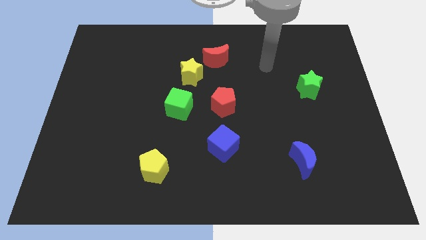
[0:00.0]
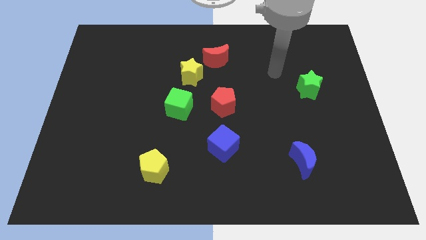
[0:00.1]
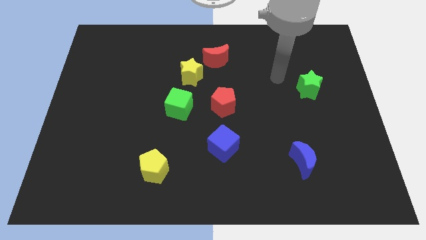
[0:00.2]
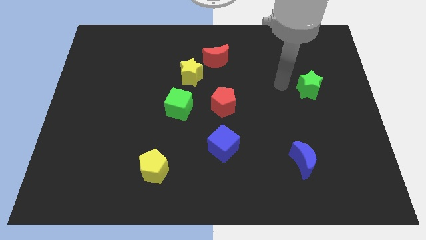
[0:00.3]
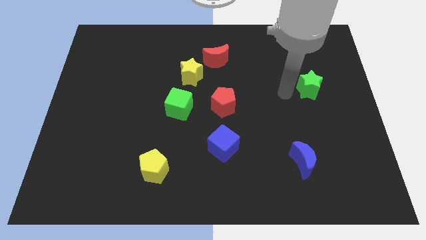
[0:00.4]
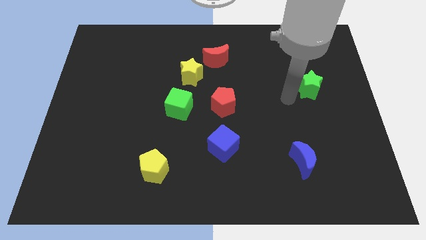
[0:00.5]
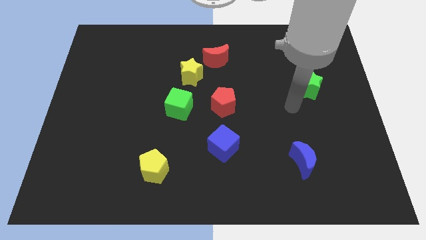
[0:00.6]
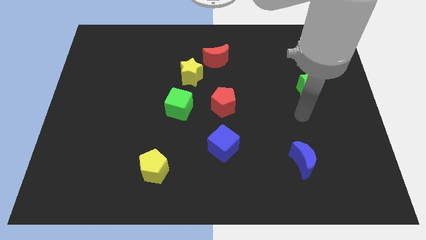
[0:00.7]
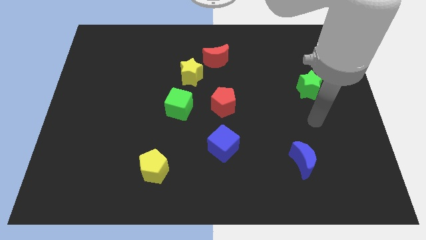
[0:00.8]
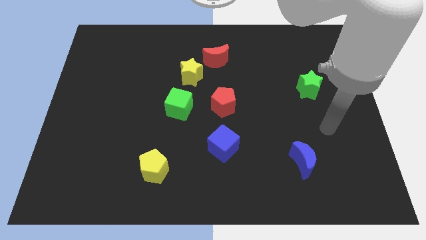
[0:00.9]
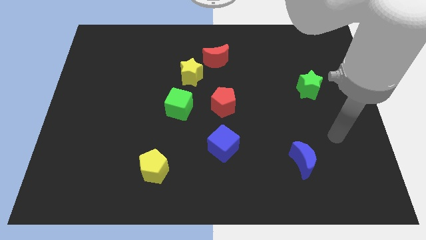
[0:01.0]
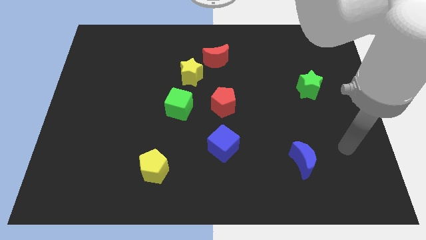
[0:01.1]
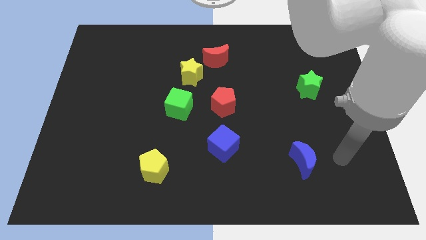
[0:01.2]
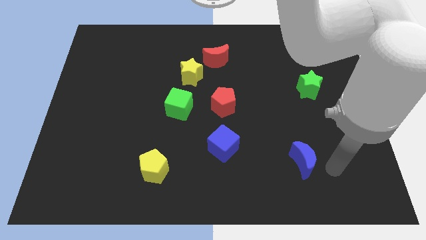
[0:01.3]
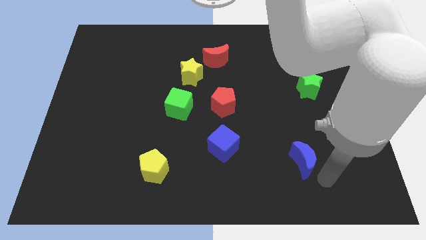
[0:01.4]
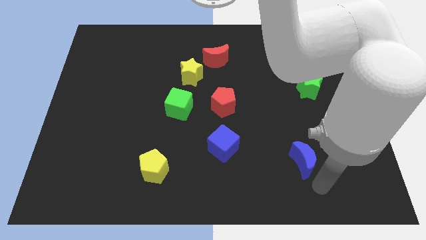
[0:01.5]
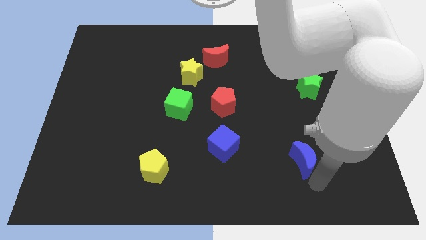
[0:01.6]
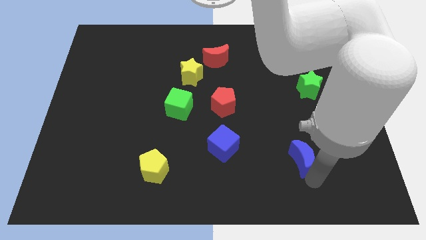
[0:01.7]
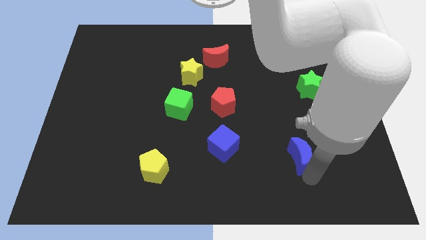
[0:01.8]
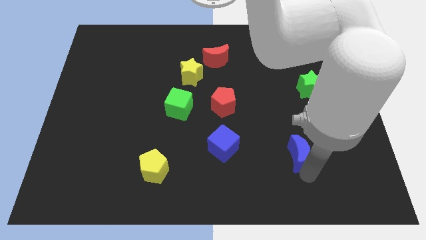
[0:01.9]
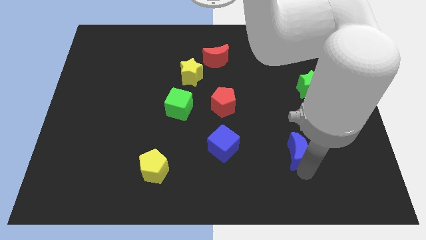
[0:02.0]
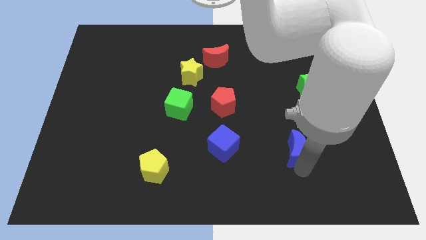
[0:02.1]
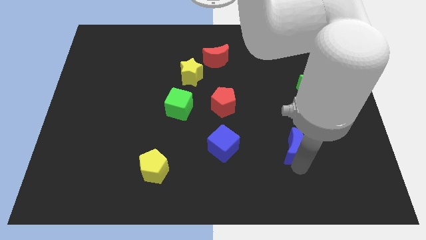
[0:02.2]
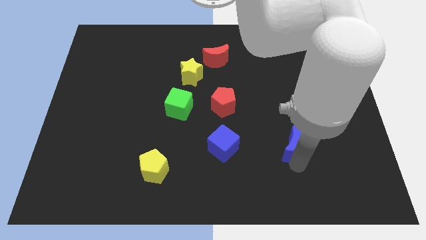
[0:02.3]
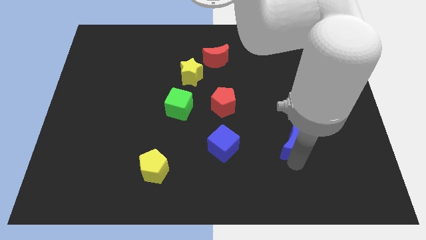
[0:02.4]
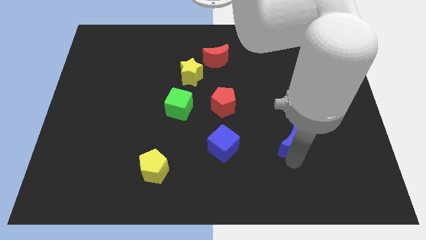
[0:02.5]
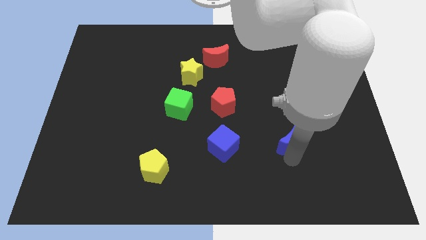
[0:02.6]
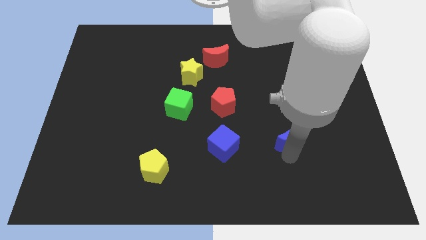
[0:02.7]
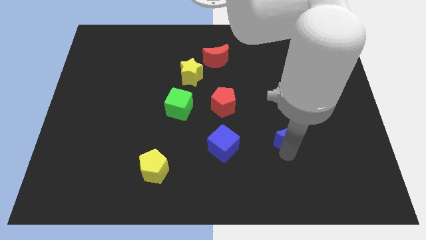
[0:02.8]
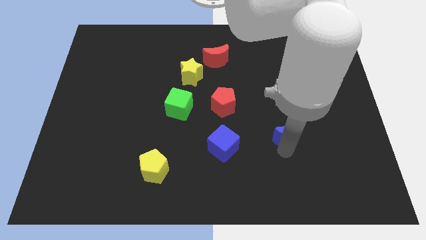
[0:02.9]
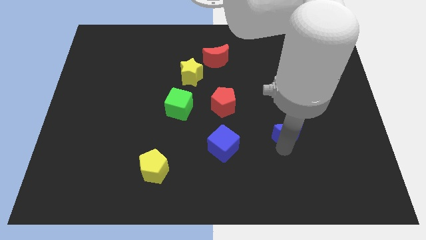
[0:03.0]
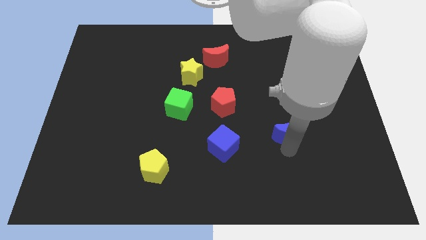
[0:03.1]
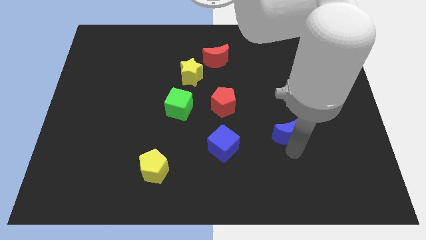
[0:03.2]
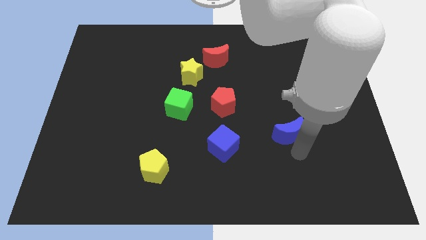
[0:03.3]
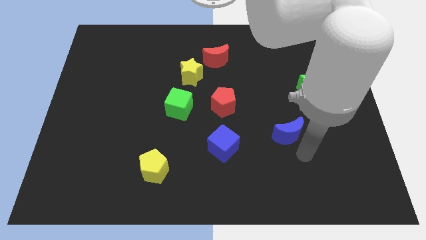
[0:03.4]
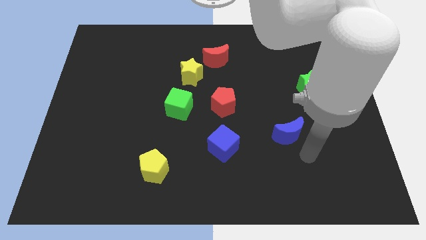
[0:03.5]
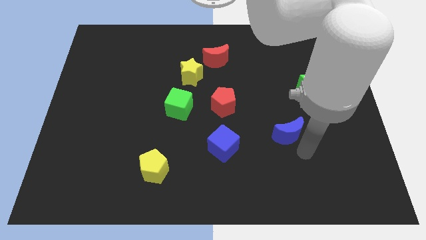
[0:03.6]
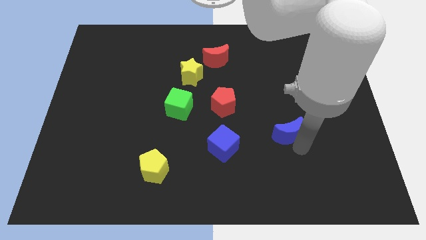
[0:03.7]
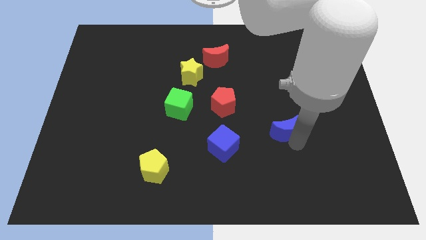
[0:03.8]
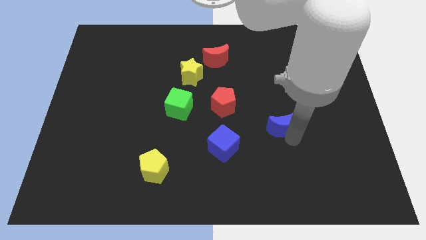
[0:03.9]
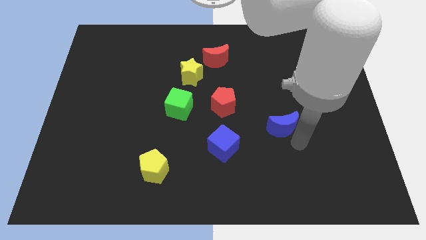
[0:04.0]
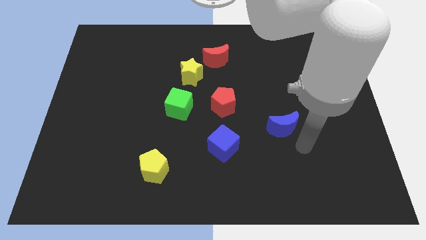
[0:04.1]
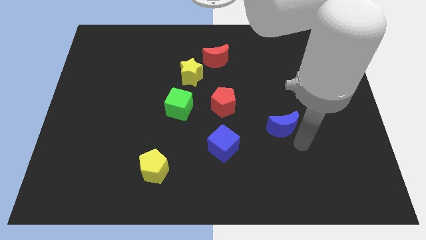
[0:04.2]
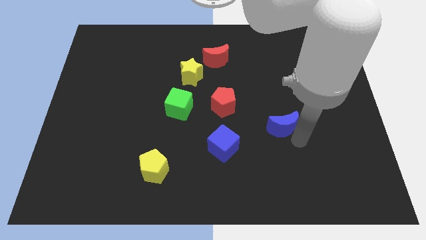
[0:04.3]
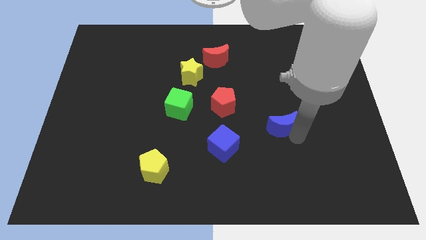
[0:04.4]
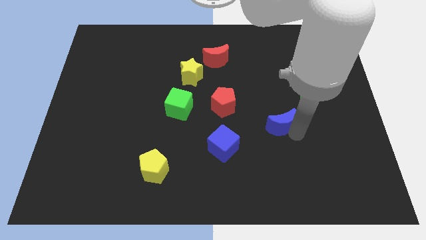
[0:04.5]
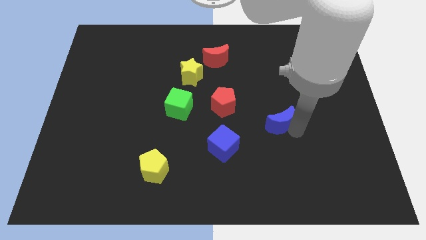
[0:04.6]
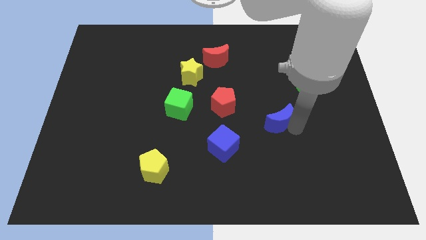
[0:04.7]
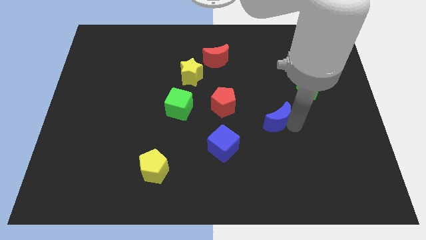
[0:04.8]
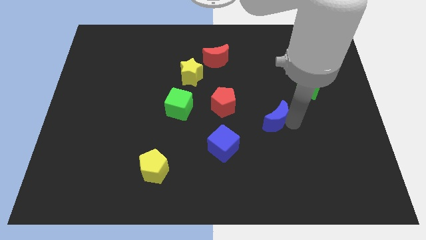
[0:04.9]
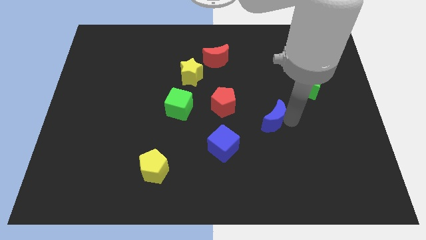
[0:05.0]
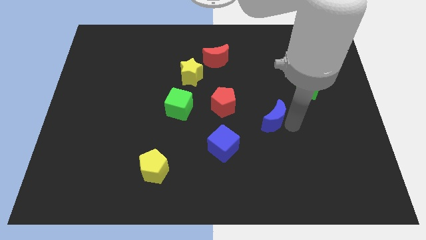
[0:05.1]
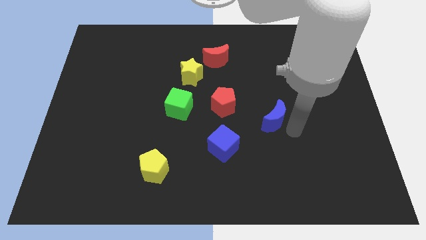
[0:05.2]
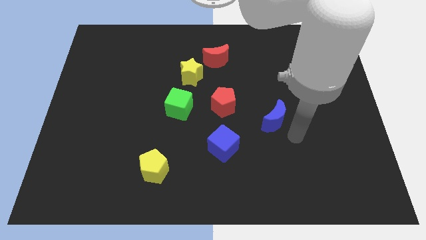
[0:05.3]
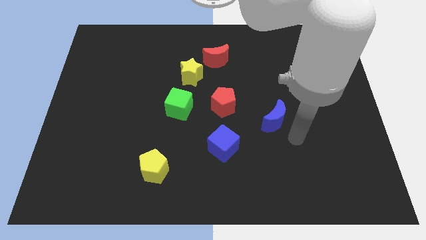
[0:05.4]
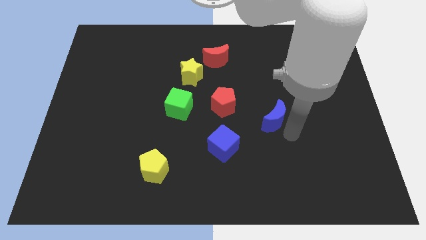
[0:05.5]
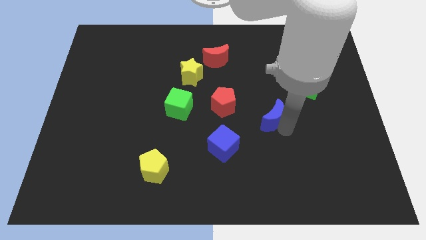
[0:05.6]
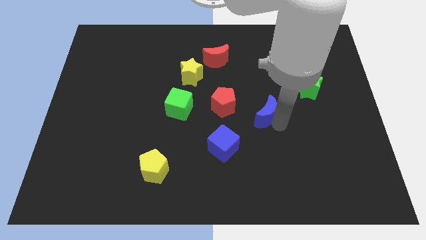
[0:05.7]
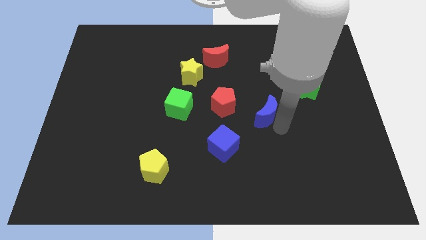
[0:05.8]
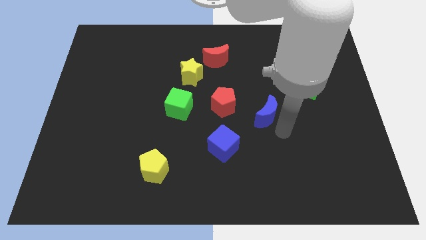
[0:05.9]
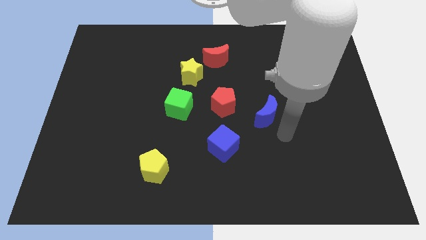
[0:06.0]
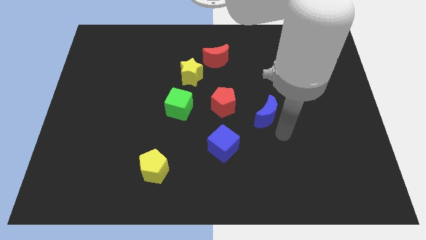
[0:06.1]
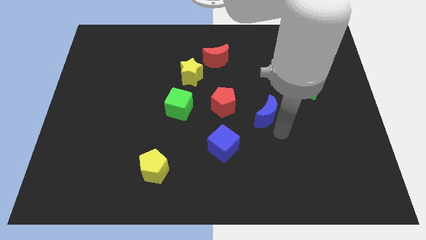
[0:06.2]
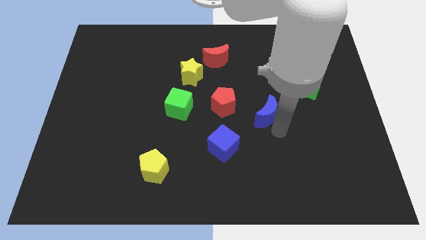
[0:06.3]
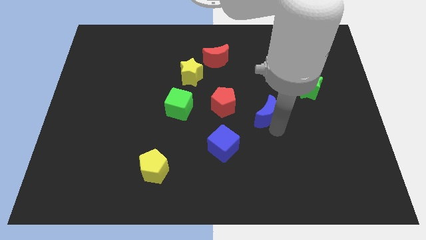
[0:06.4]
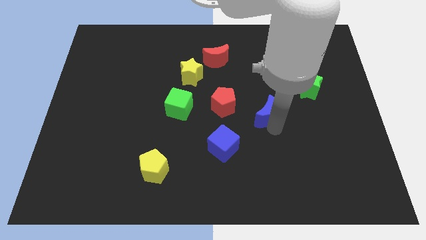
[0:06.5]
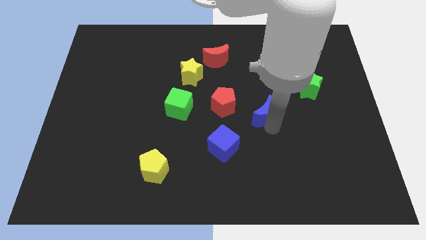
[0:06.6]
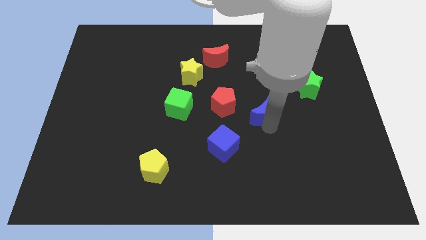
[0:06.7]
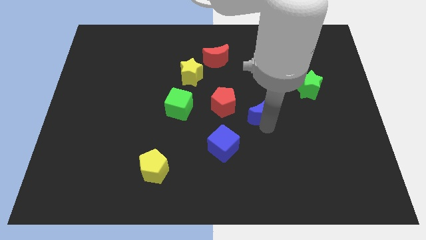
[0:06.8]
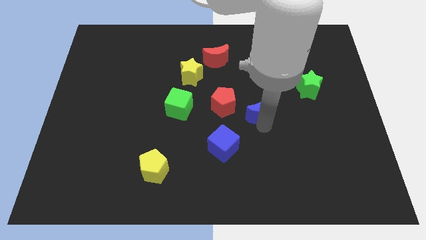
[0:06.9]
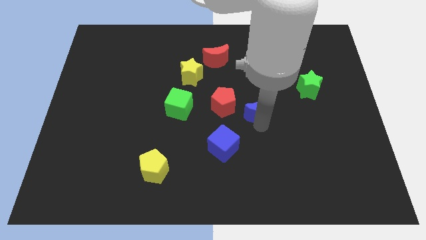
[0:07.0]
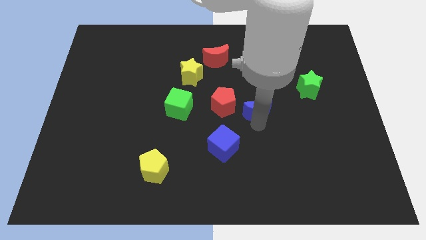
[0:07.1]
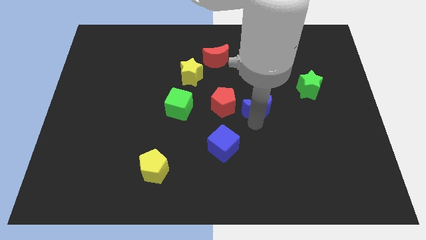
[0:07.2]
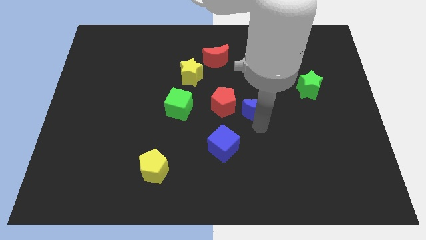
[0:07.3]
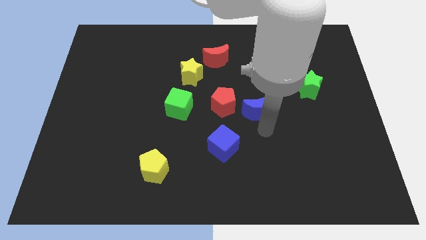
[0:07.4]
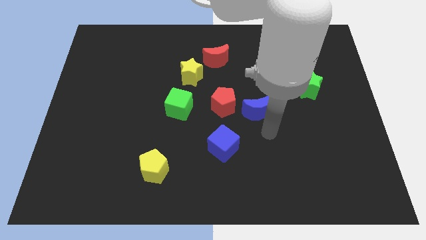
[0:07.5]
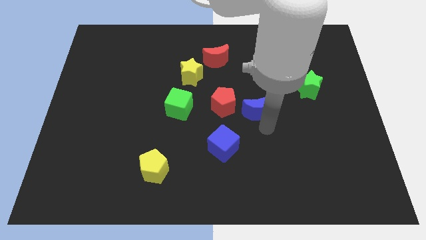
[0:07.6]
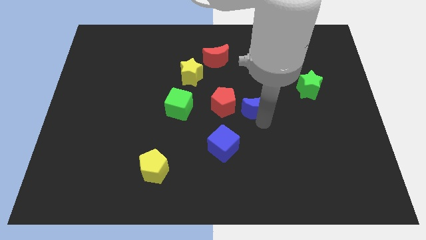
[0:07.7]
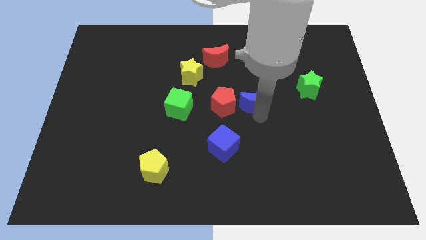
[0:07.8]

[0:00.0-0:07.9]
push the blue moon to the top right side of the red pentagon
